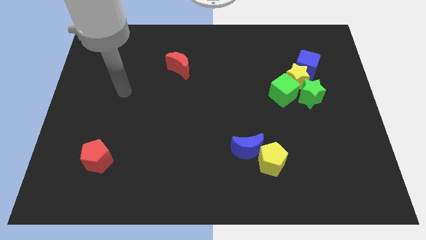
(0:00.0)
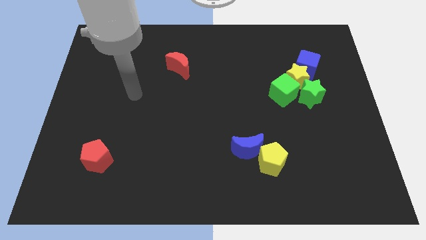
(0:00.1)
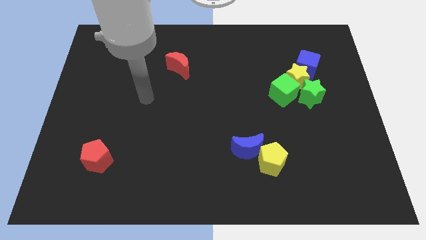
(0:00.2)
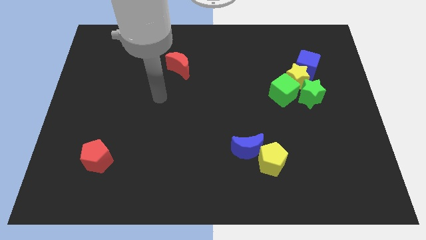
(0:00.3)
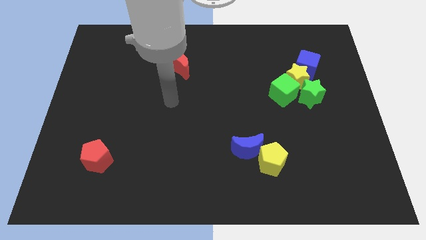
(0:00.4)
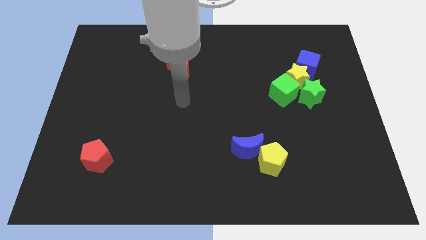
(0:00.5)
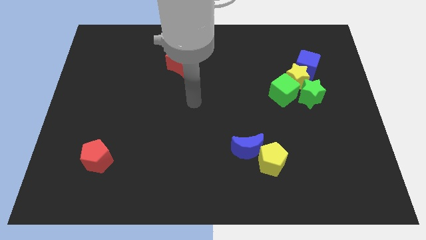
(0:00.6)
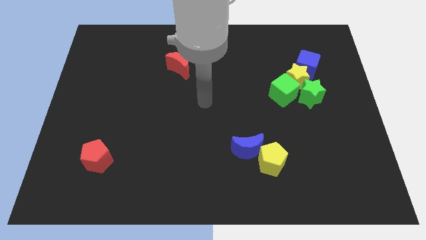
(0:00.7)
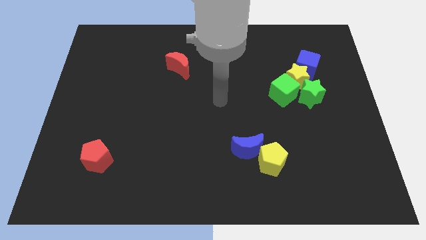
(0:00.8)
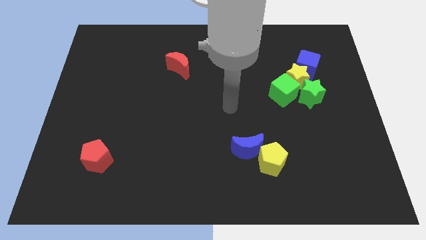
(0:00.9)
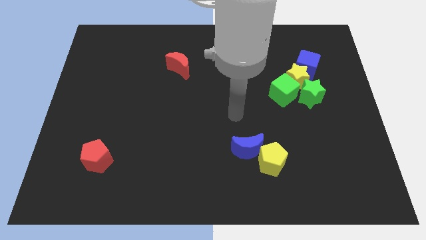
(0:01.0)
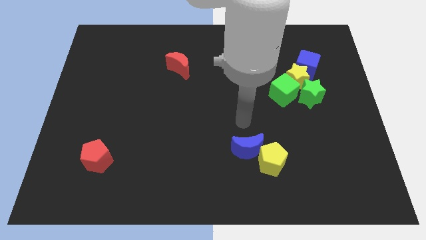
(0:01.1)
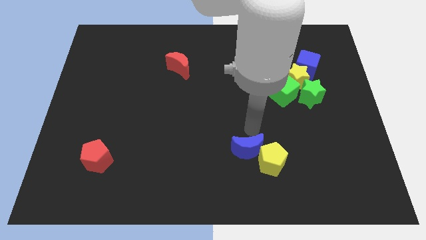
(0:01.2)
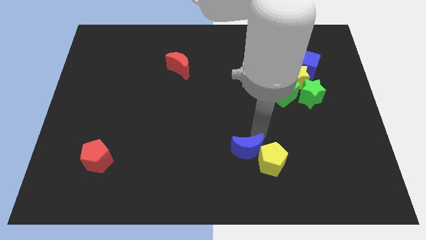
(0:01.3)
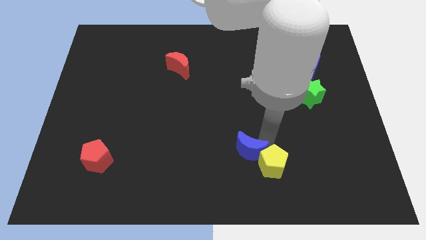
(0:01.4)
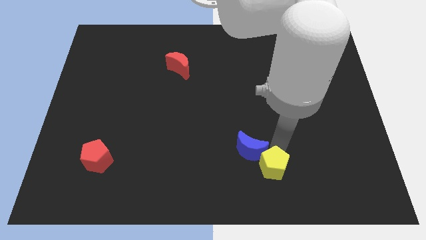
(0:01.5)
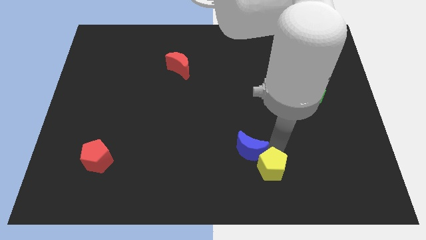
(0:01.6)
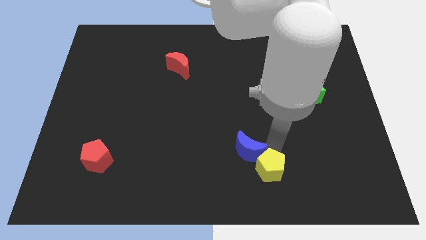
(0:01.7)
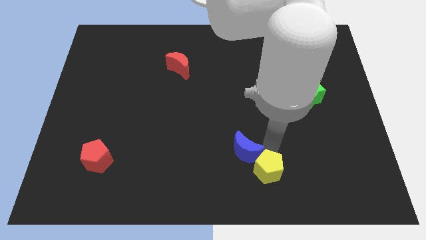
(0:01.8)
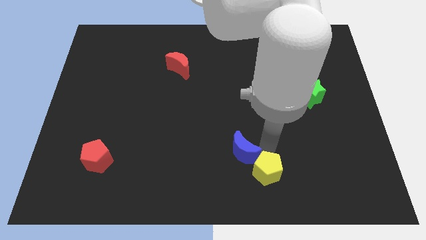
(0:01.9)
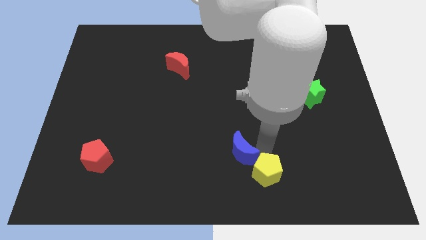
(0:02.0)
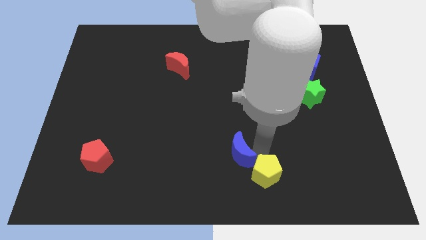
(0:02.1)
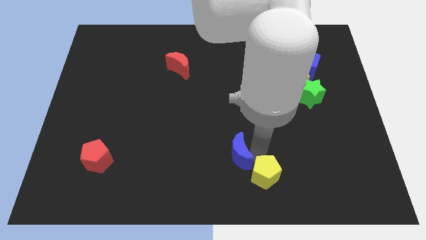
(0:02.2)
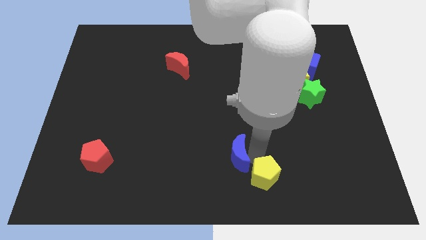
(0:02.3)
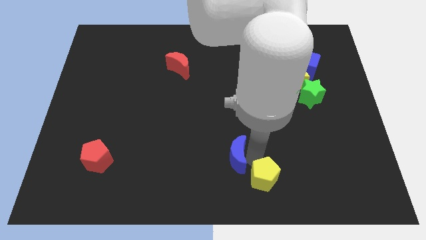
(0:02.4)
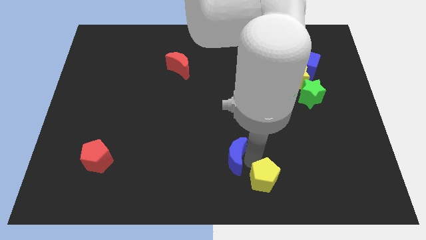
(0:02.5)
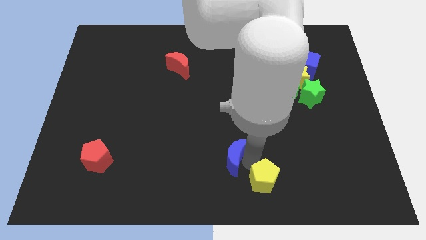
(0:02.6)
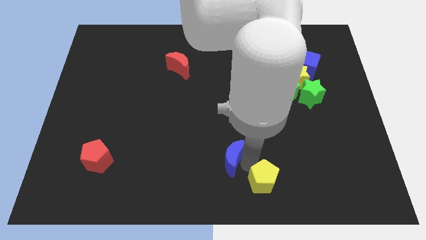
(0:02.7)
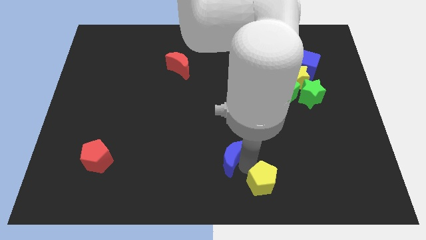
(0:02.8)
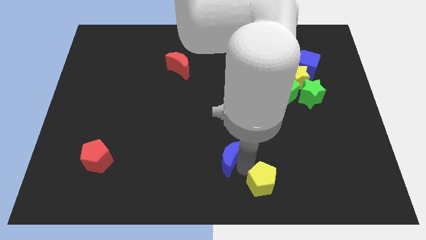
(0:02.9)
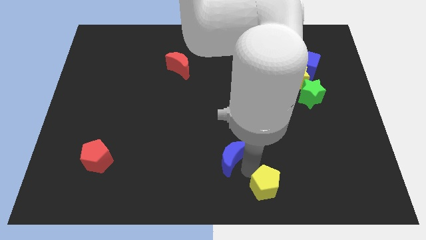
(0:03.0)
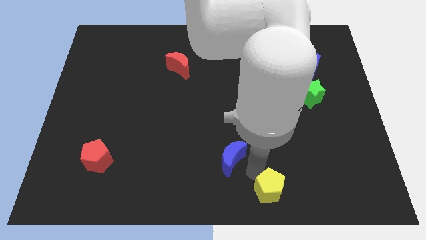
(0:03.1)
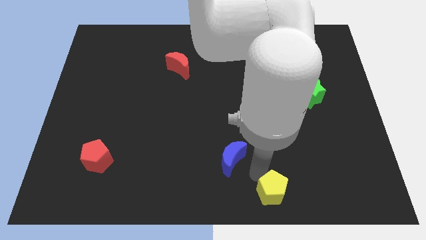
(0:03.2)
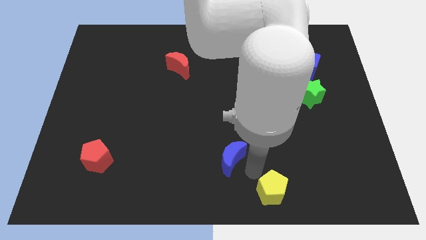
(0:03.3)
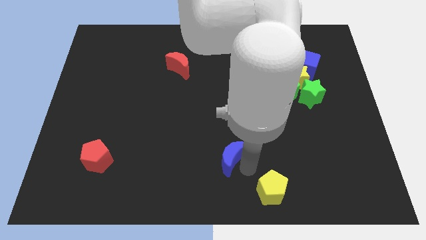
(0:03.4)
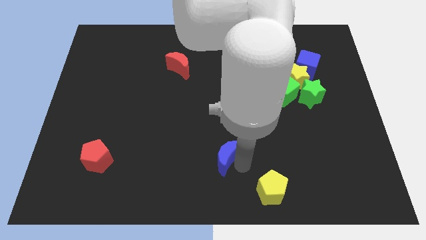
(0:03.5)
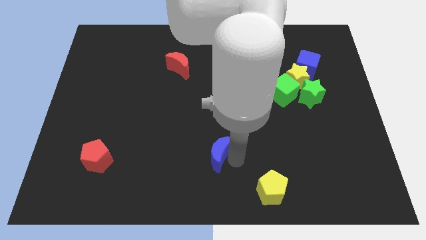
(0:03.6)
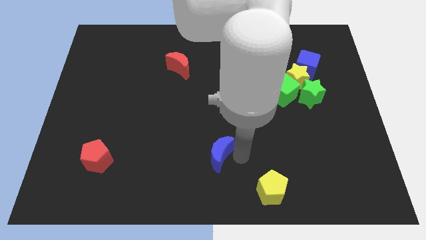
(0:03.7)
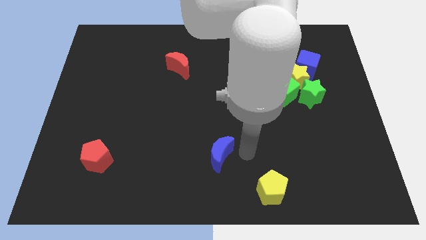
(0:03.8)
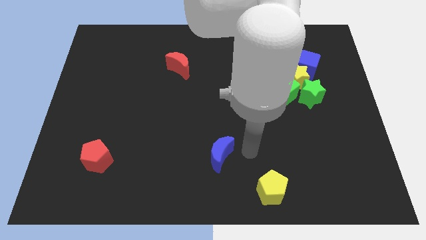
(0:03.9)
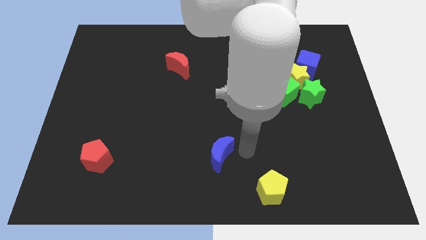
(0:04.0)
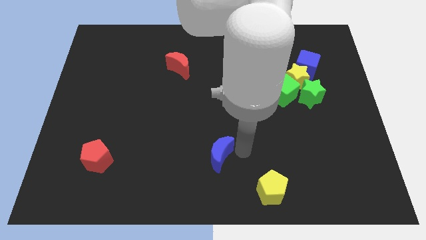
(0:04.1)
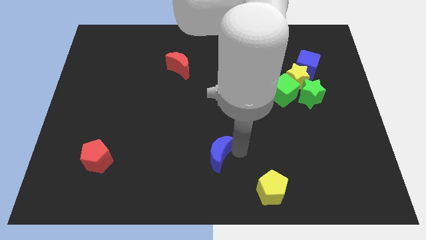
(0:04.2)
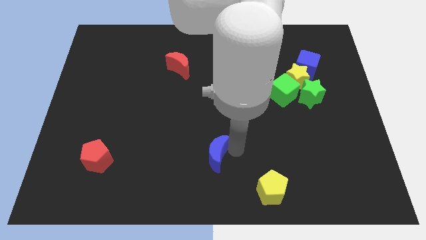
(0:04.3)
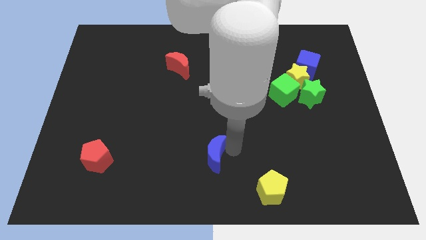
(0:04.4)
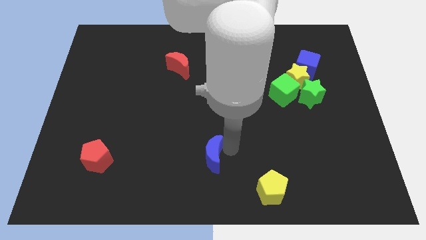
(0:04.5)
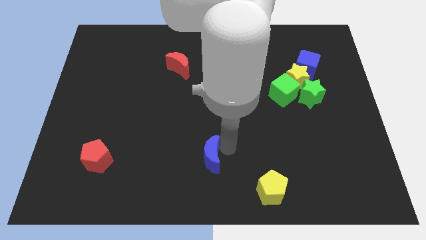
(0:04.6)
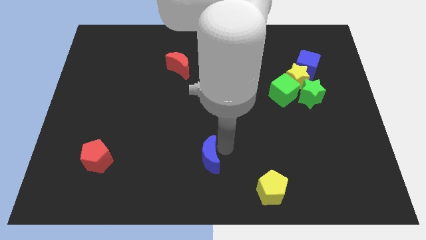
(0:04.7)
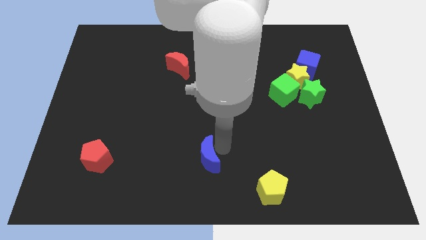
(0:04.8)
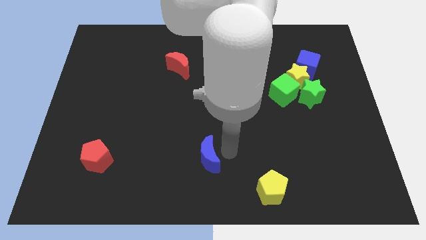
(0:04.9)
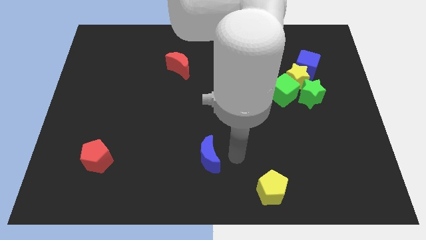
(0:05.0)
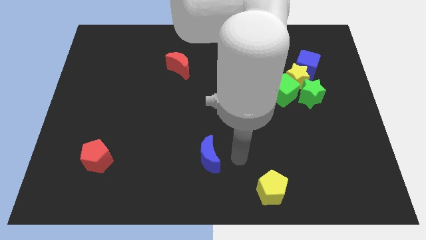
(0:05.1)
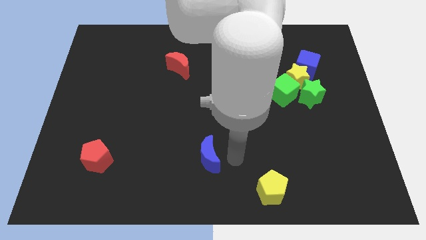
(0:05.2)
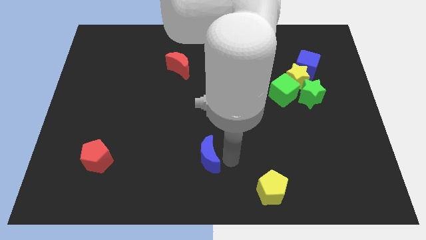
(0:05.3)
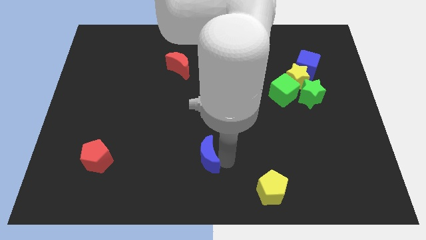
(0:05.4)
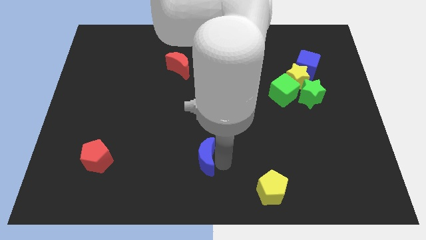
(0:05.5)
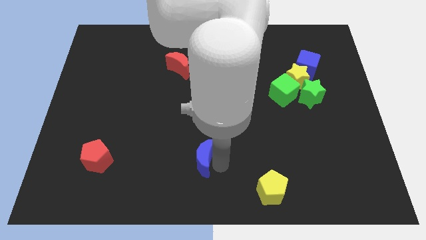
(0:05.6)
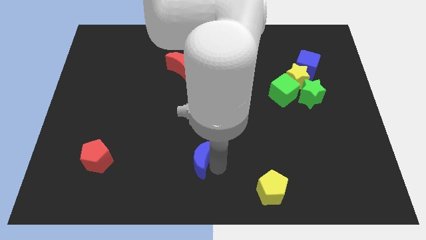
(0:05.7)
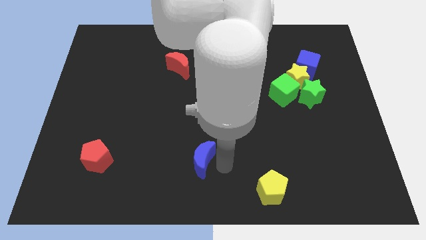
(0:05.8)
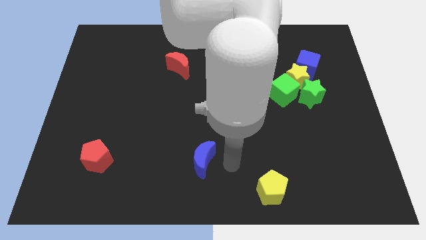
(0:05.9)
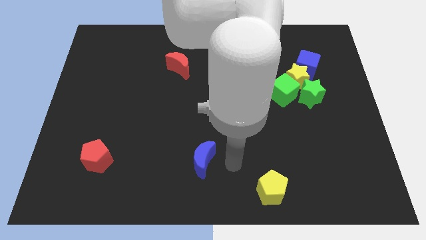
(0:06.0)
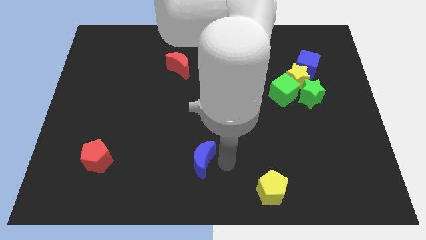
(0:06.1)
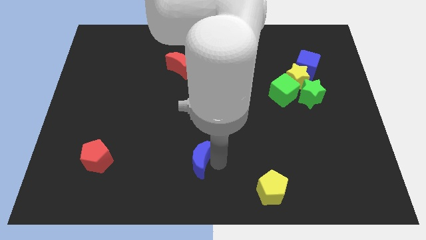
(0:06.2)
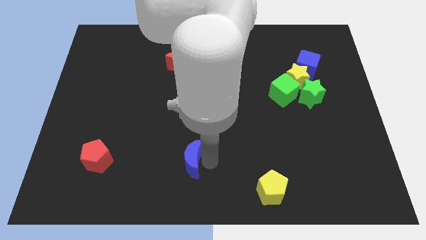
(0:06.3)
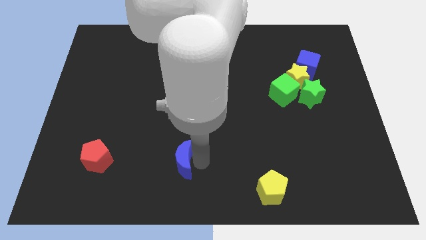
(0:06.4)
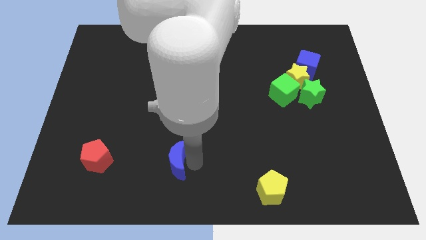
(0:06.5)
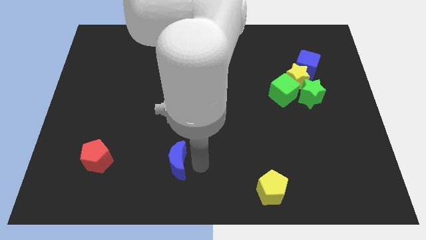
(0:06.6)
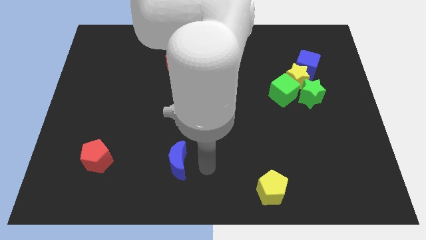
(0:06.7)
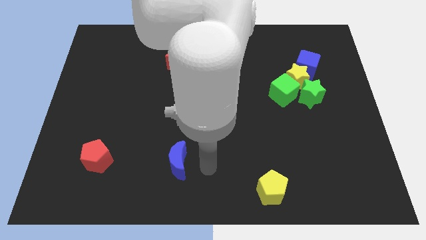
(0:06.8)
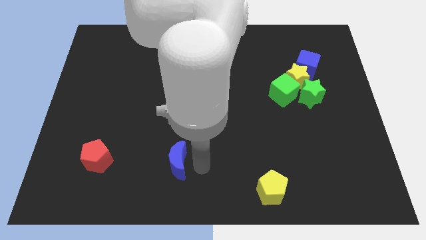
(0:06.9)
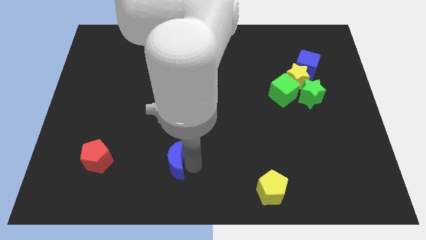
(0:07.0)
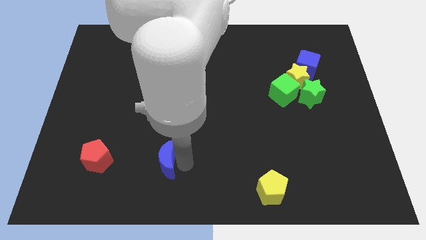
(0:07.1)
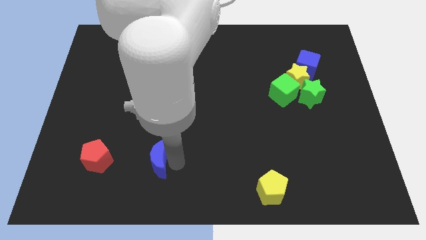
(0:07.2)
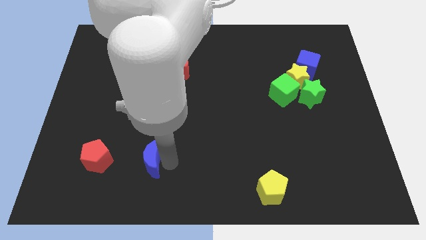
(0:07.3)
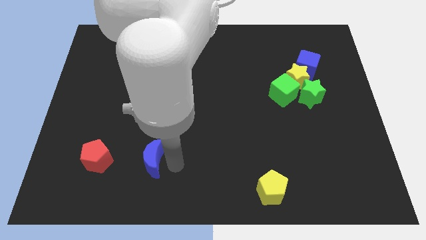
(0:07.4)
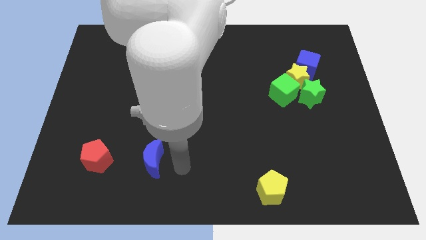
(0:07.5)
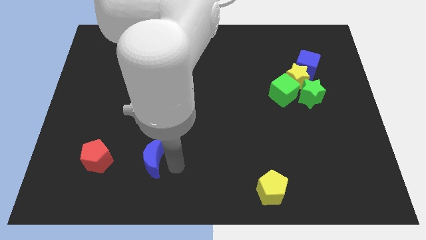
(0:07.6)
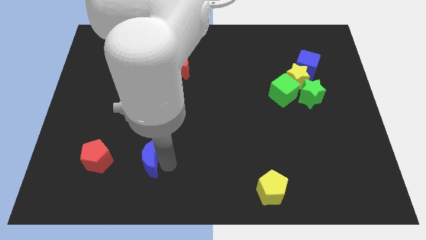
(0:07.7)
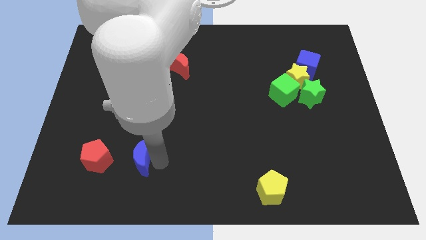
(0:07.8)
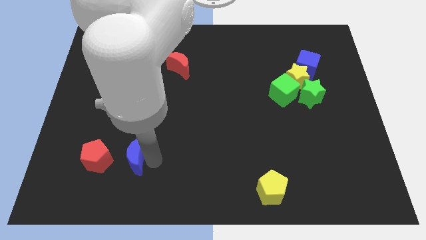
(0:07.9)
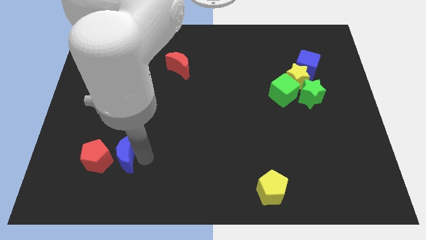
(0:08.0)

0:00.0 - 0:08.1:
put the blue moon next to the red pentagon
